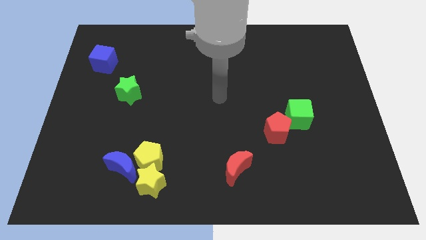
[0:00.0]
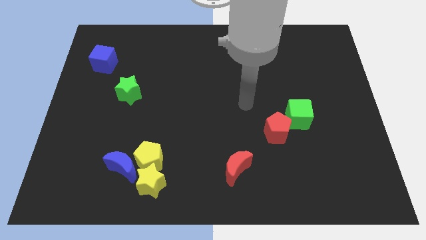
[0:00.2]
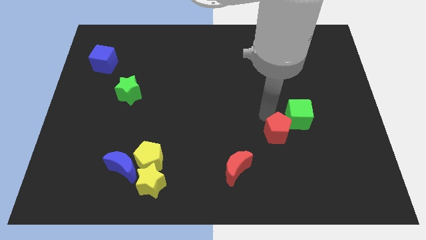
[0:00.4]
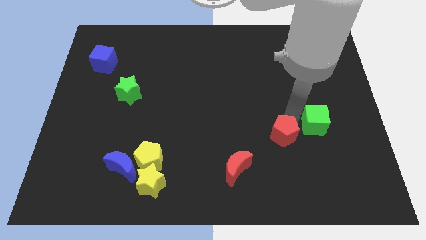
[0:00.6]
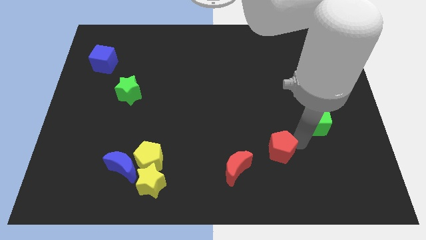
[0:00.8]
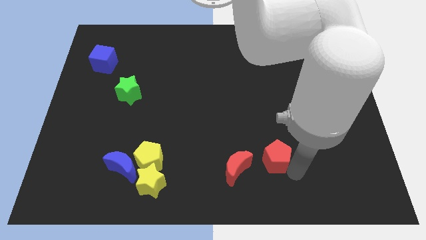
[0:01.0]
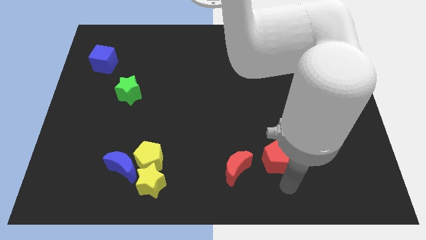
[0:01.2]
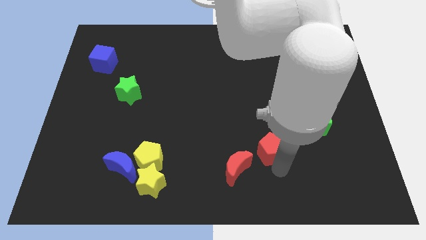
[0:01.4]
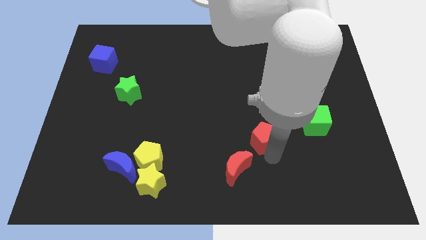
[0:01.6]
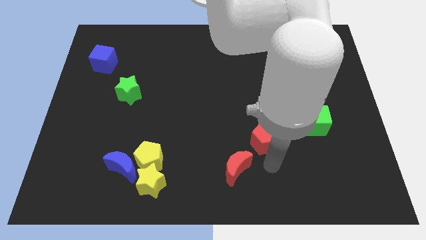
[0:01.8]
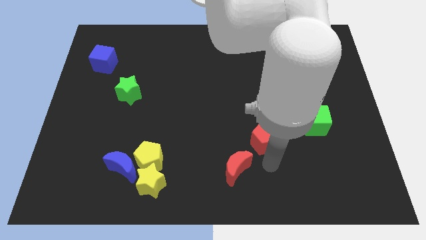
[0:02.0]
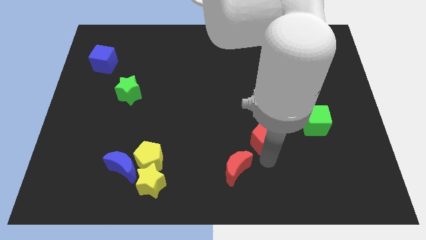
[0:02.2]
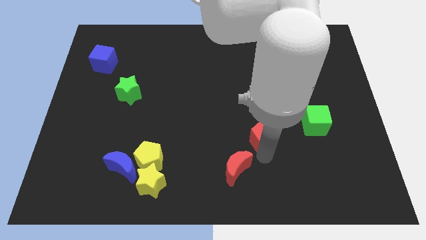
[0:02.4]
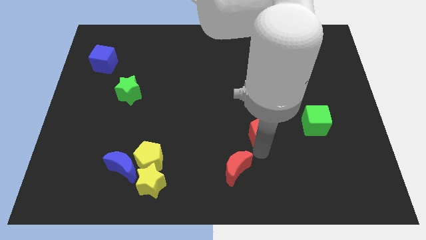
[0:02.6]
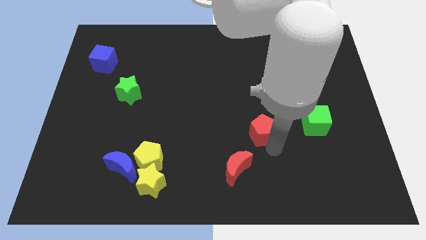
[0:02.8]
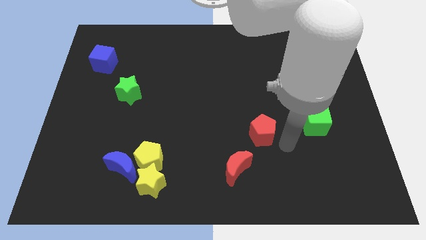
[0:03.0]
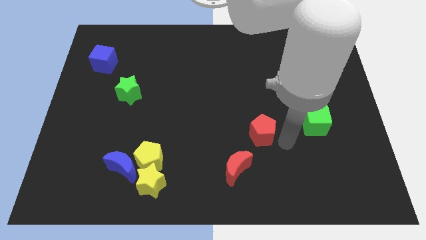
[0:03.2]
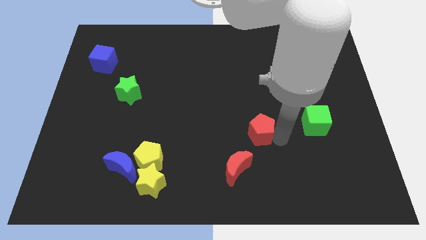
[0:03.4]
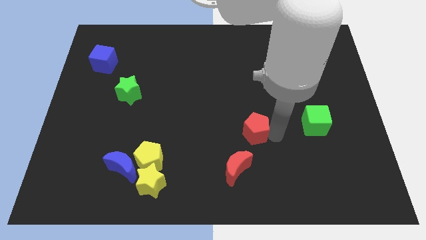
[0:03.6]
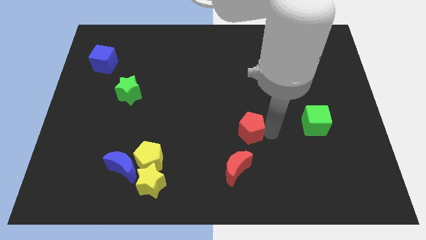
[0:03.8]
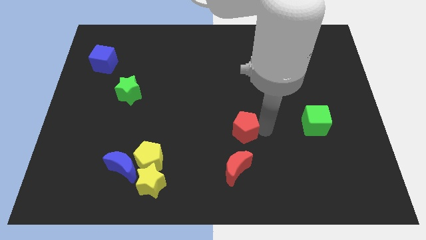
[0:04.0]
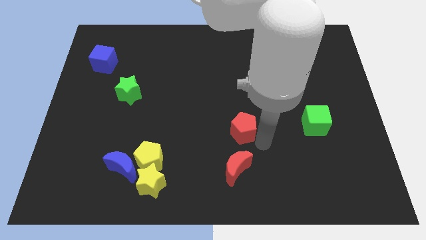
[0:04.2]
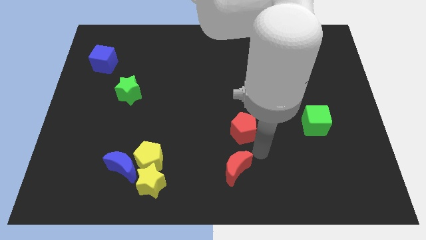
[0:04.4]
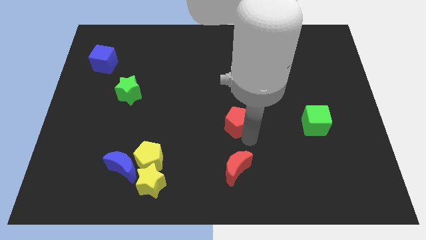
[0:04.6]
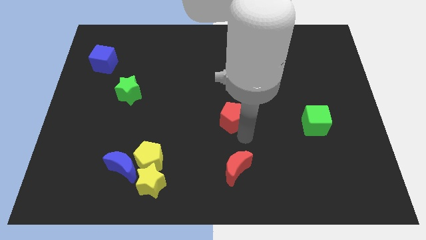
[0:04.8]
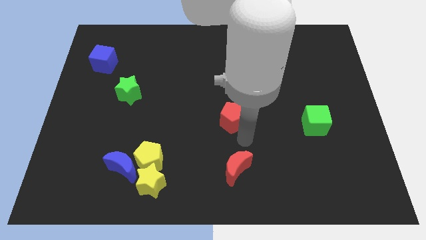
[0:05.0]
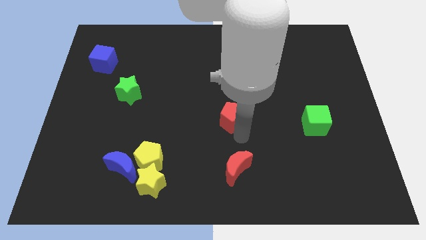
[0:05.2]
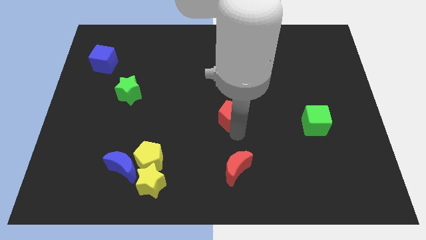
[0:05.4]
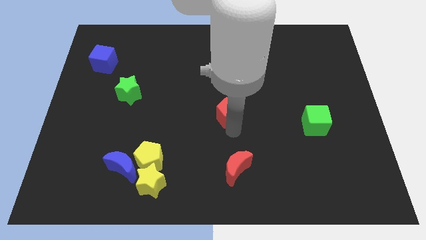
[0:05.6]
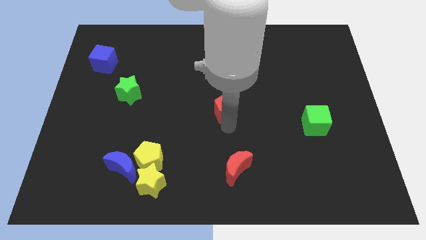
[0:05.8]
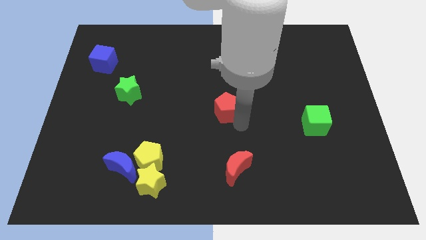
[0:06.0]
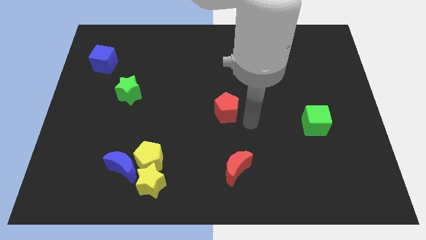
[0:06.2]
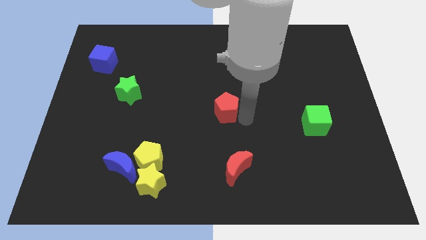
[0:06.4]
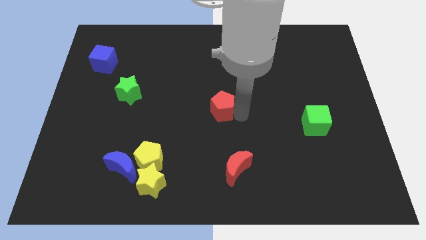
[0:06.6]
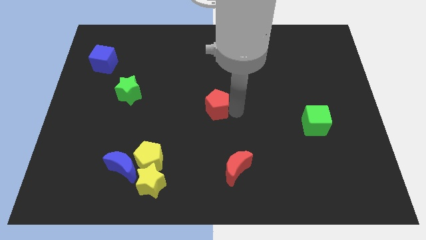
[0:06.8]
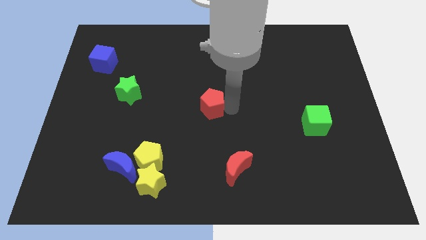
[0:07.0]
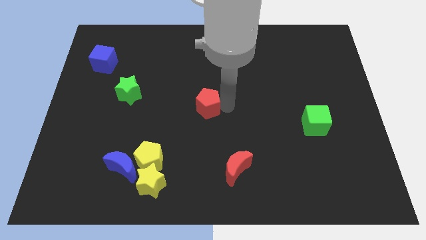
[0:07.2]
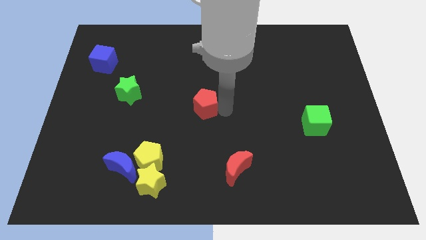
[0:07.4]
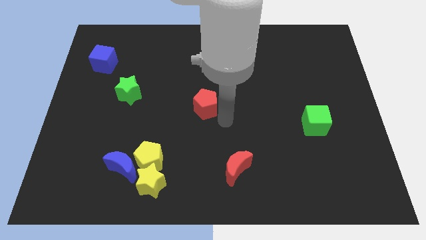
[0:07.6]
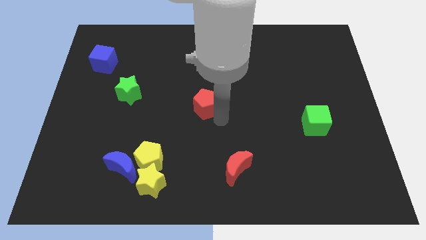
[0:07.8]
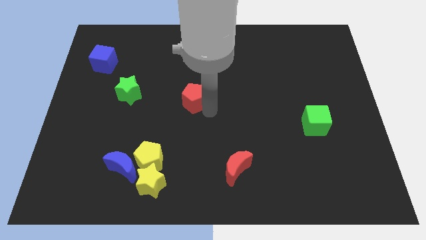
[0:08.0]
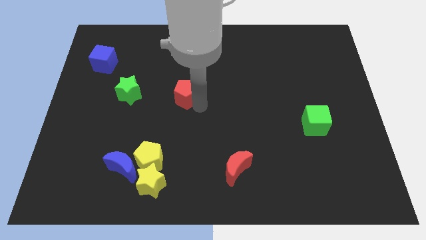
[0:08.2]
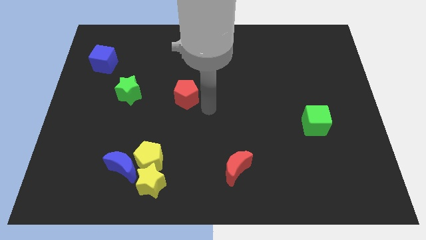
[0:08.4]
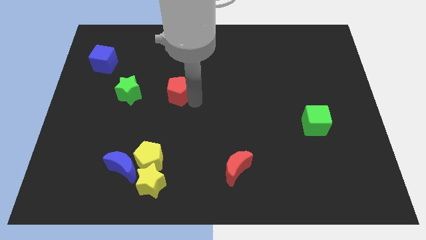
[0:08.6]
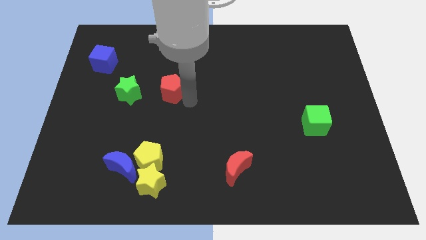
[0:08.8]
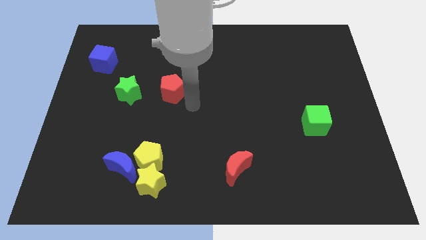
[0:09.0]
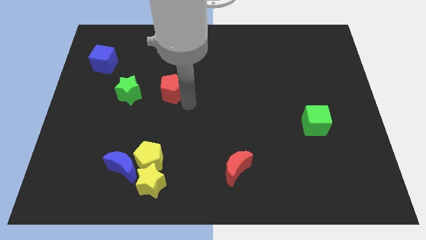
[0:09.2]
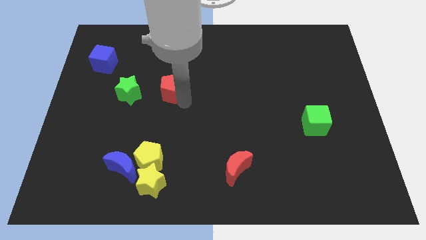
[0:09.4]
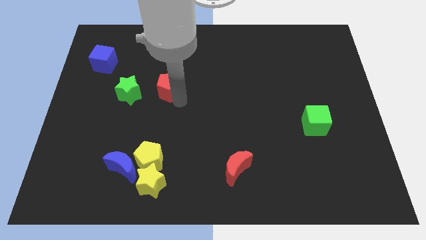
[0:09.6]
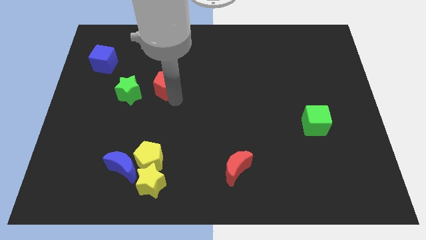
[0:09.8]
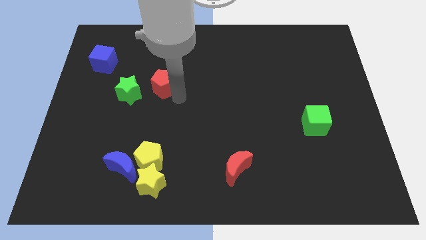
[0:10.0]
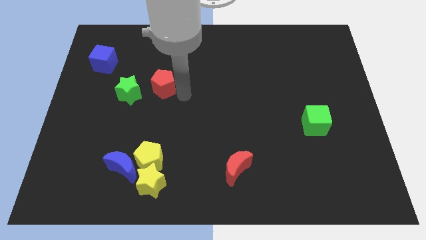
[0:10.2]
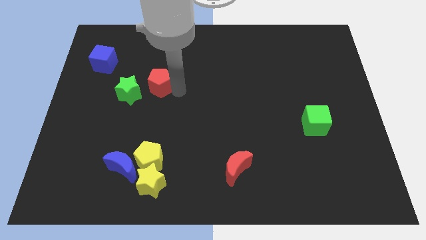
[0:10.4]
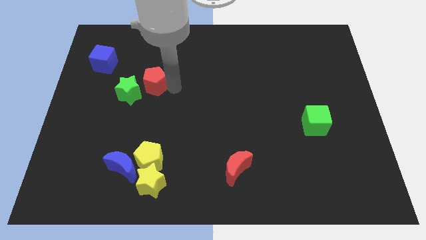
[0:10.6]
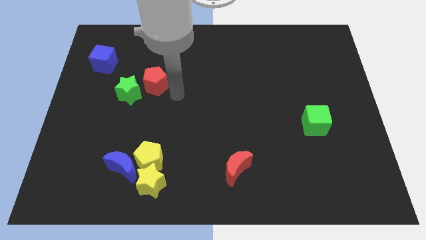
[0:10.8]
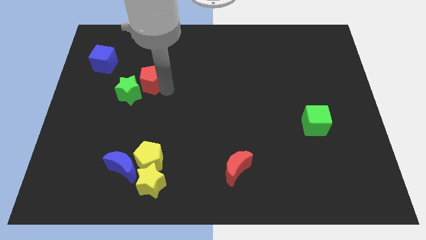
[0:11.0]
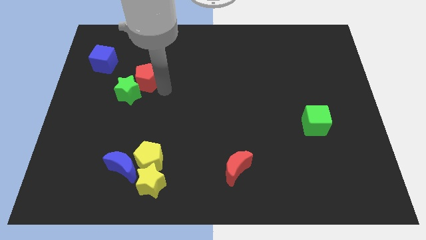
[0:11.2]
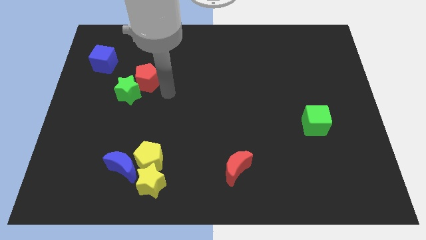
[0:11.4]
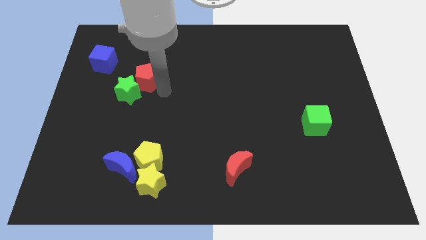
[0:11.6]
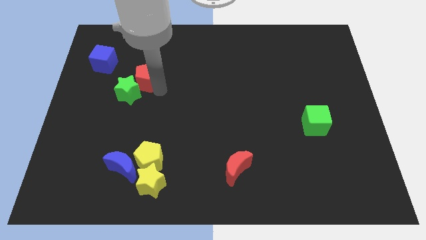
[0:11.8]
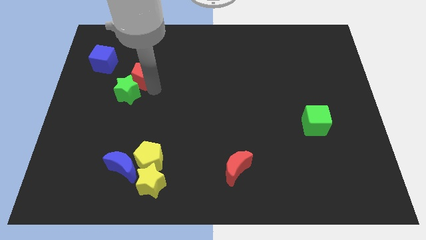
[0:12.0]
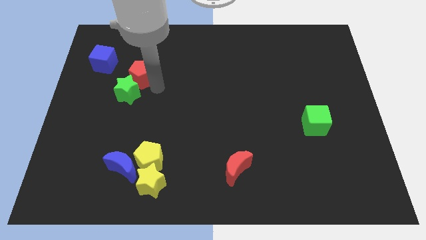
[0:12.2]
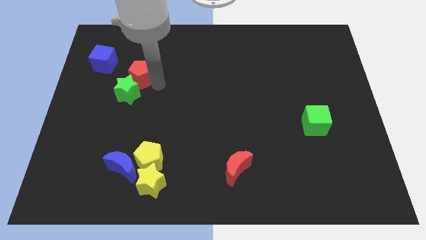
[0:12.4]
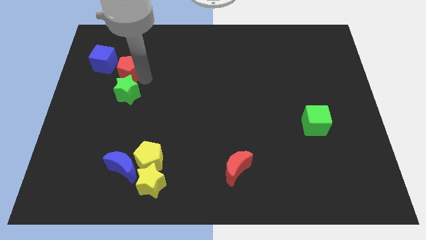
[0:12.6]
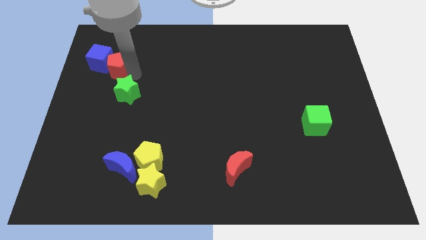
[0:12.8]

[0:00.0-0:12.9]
slide the red pentagon close to the blue cube

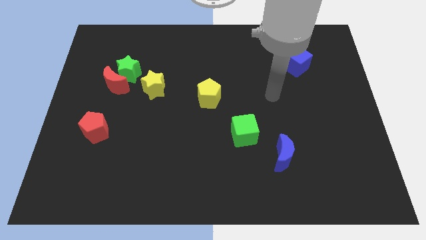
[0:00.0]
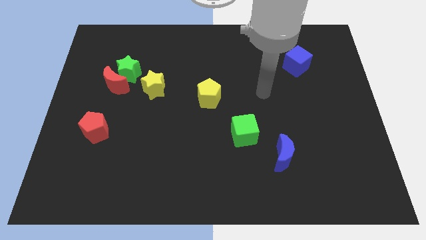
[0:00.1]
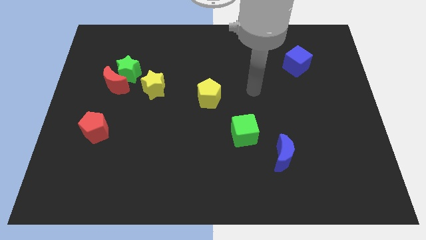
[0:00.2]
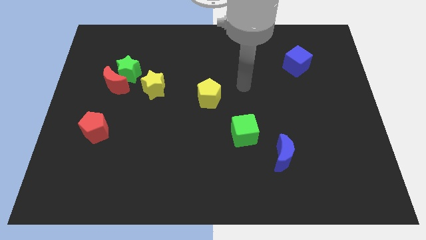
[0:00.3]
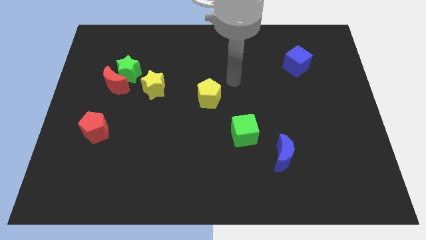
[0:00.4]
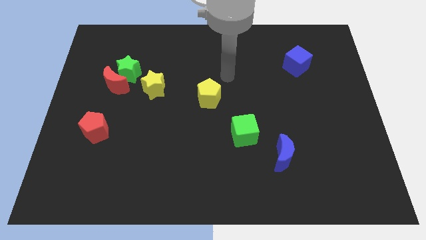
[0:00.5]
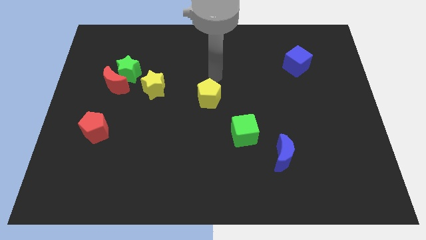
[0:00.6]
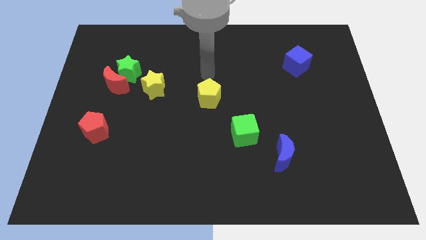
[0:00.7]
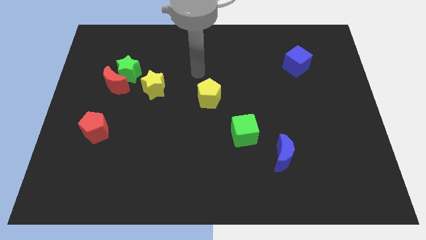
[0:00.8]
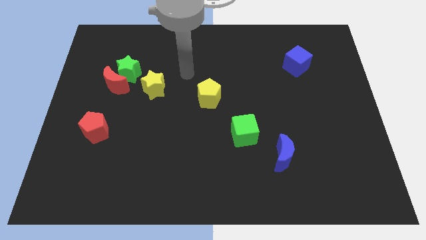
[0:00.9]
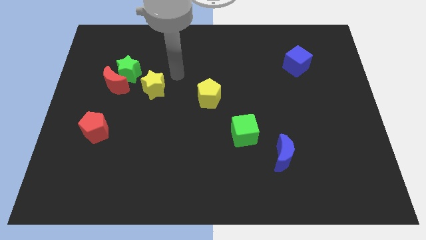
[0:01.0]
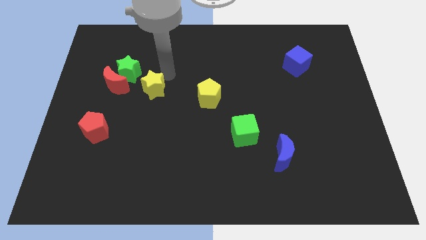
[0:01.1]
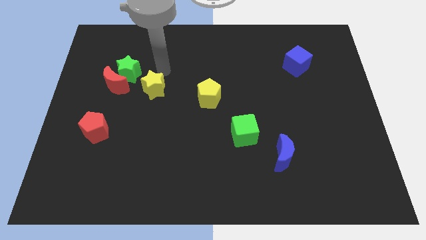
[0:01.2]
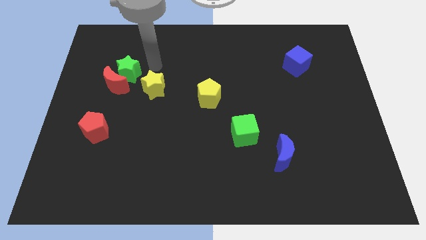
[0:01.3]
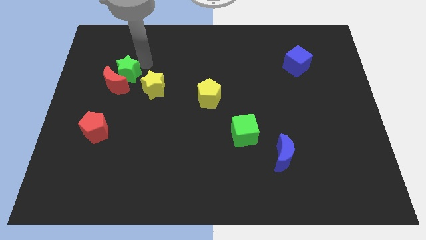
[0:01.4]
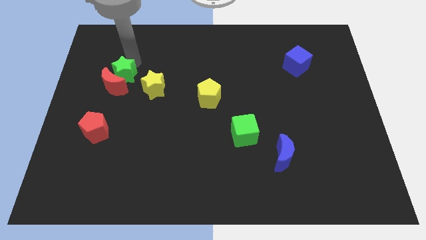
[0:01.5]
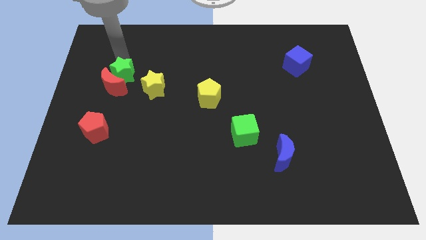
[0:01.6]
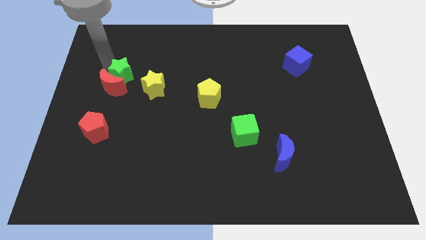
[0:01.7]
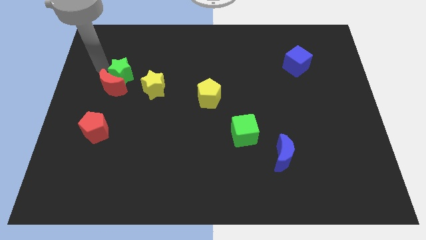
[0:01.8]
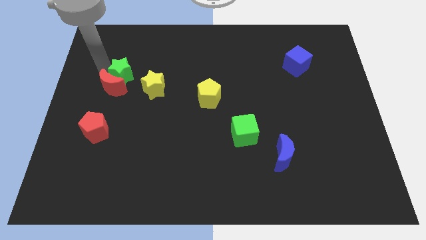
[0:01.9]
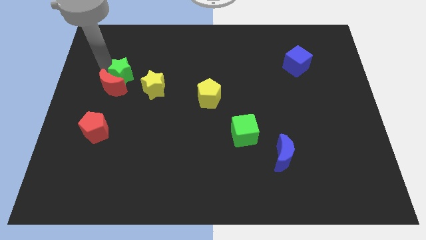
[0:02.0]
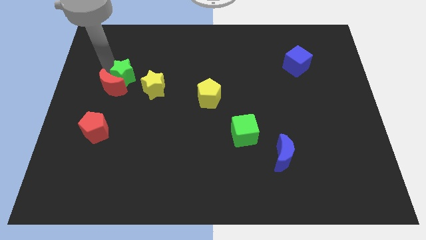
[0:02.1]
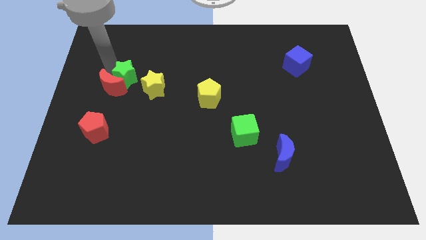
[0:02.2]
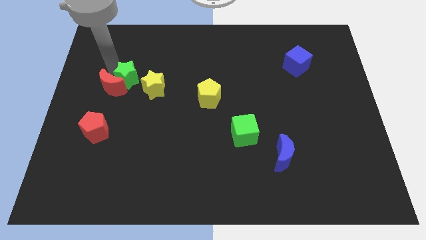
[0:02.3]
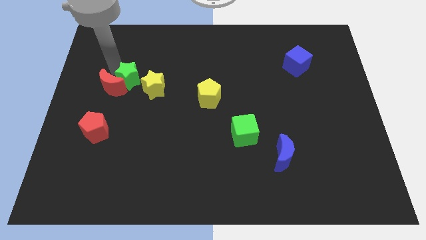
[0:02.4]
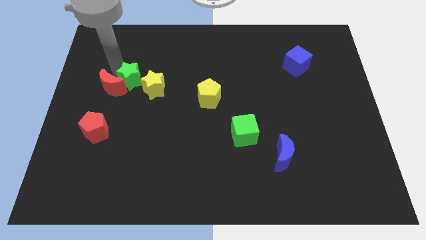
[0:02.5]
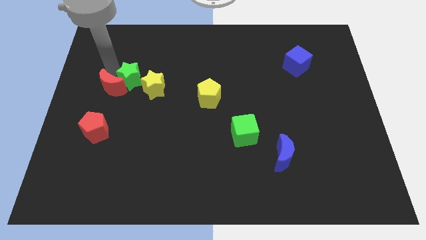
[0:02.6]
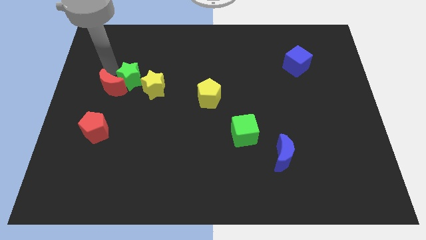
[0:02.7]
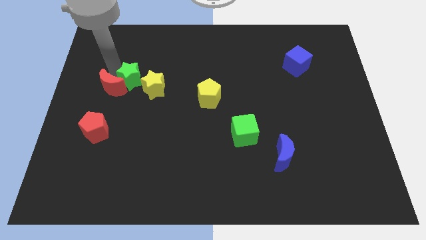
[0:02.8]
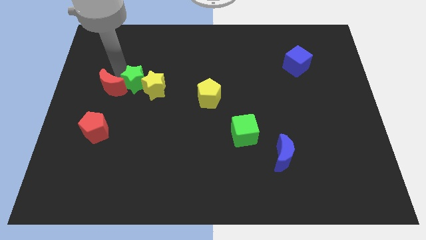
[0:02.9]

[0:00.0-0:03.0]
put the green star to the yellow star
